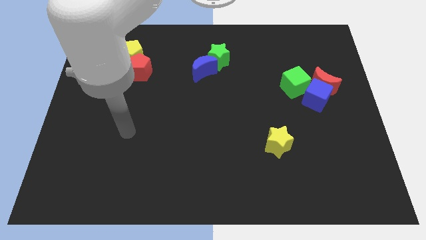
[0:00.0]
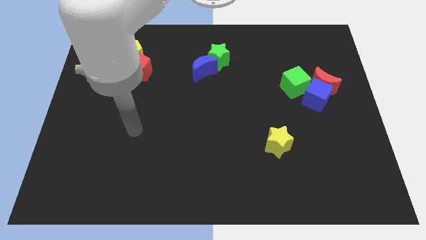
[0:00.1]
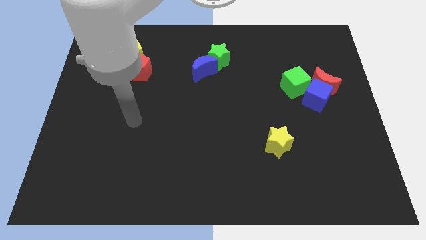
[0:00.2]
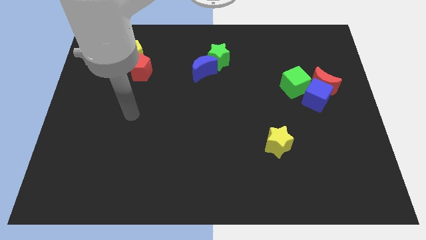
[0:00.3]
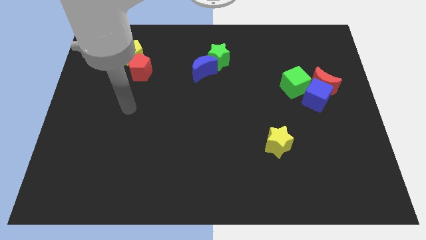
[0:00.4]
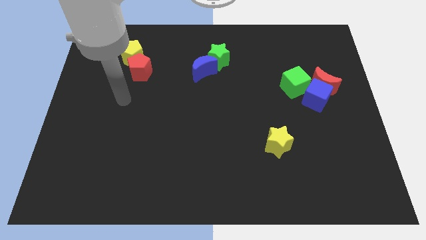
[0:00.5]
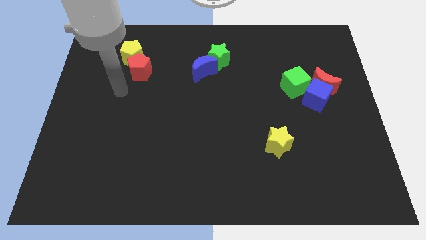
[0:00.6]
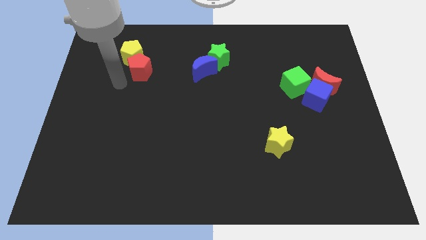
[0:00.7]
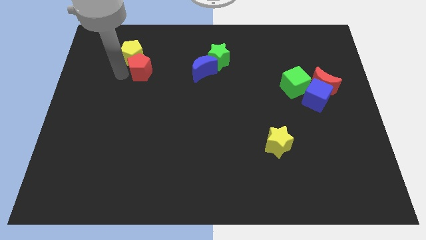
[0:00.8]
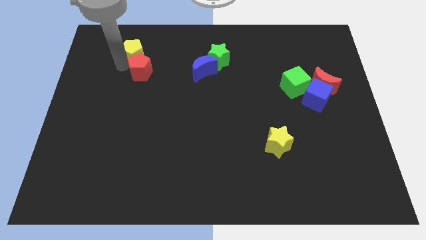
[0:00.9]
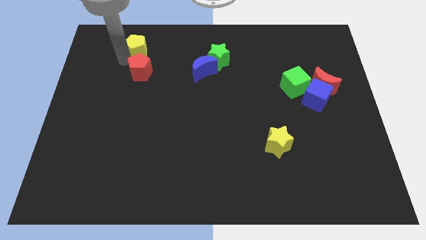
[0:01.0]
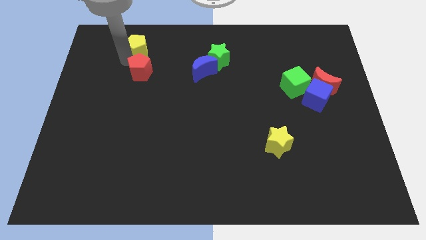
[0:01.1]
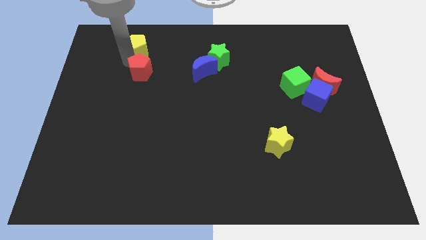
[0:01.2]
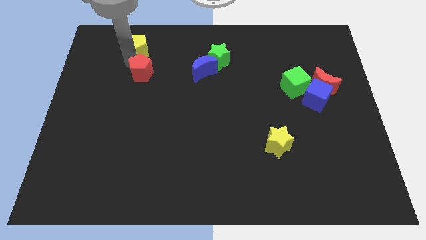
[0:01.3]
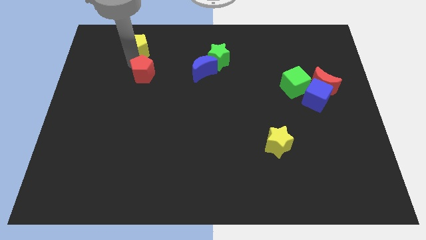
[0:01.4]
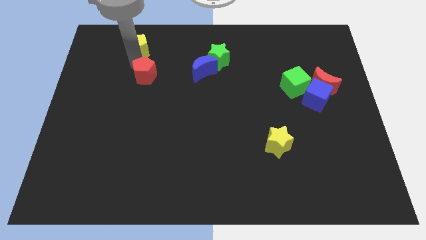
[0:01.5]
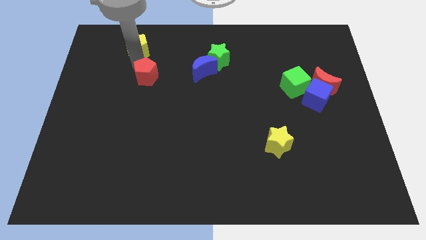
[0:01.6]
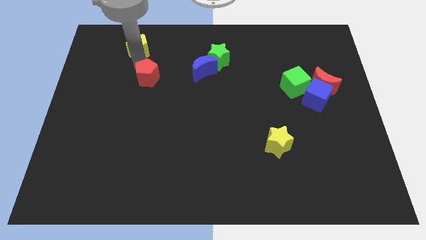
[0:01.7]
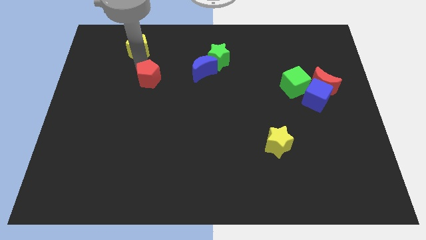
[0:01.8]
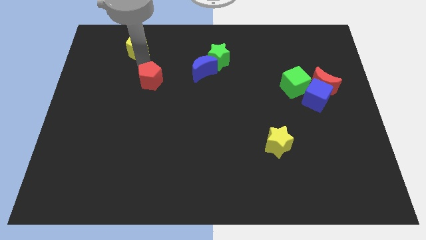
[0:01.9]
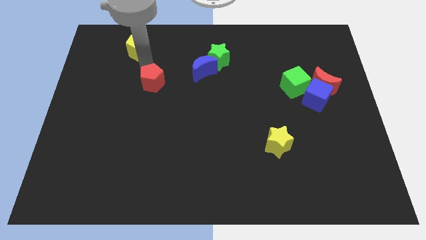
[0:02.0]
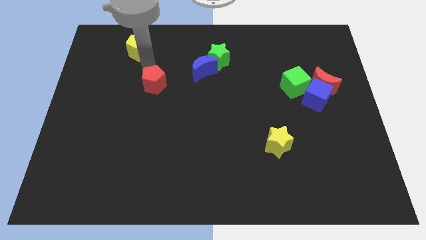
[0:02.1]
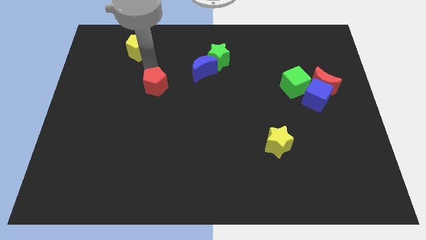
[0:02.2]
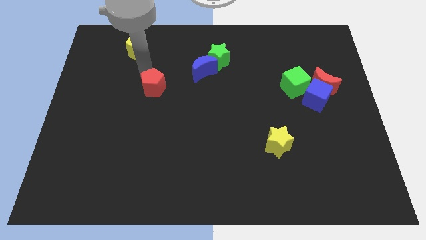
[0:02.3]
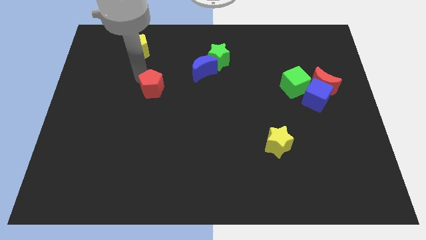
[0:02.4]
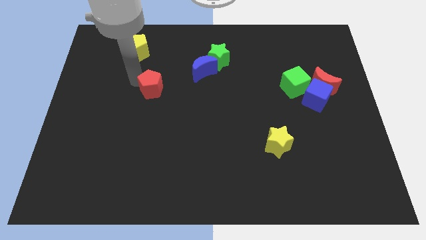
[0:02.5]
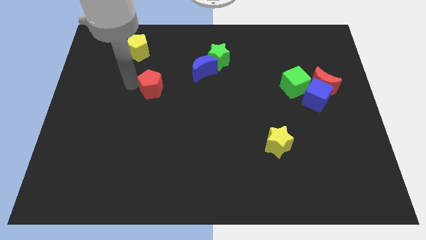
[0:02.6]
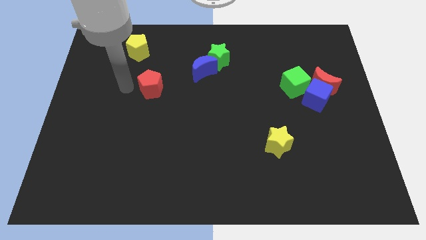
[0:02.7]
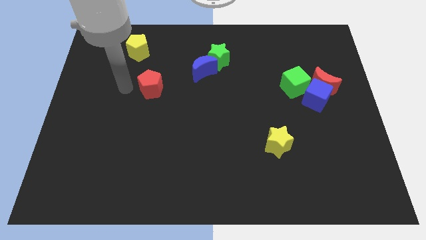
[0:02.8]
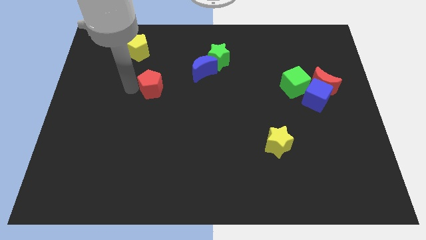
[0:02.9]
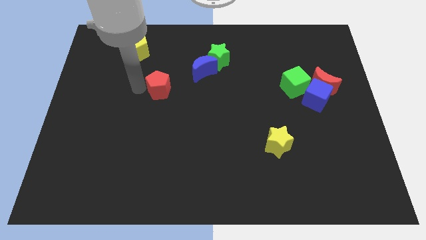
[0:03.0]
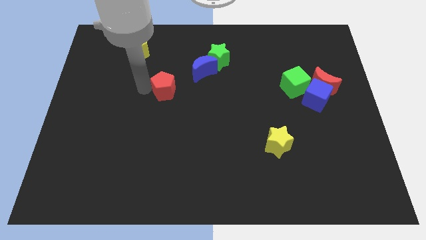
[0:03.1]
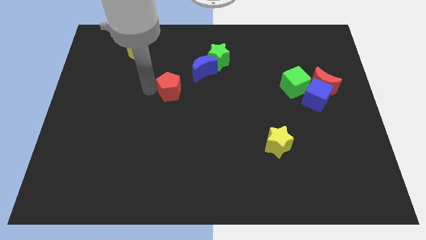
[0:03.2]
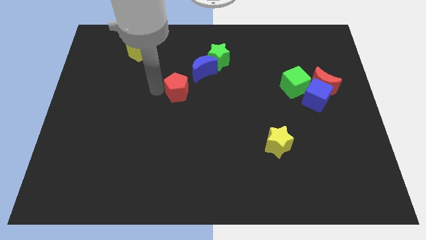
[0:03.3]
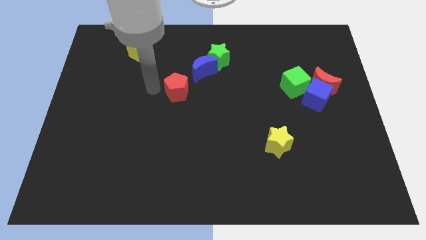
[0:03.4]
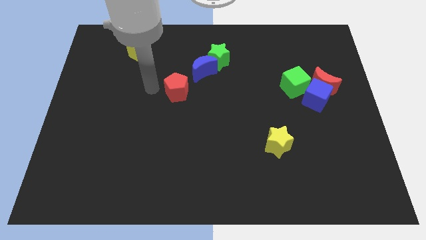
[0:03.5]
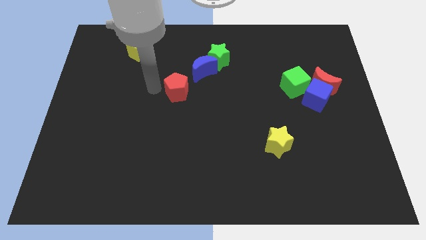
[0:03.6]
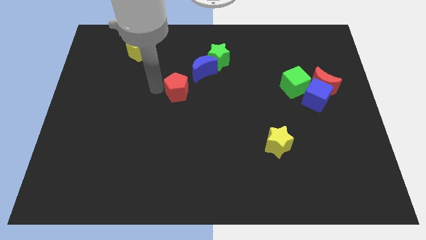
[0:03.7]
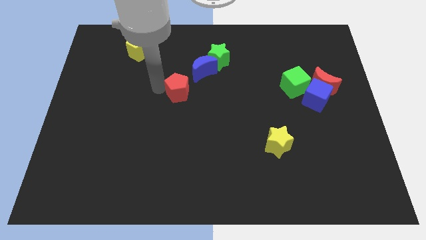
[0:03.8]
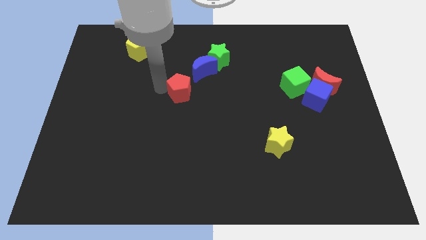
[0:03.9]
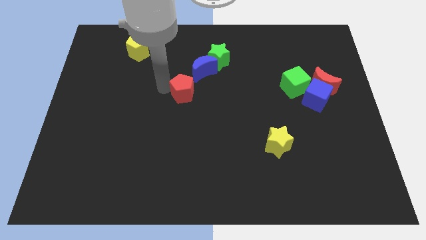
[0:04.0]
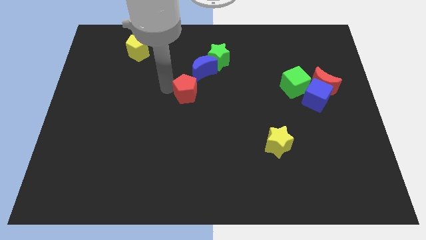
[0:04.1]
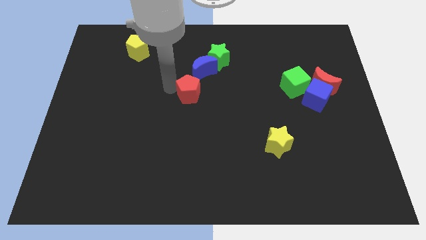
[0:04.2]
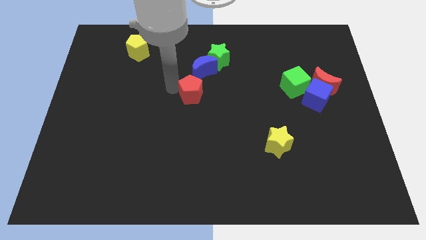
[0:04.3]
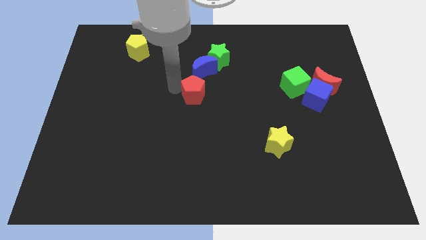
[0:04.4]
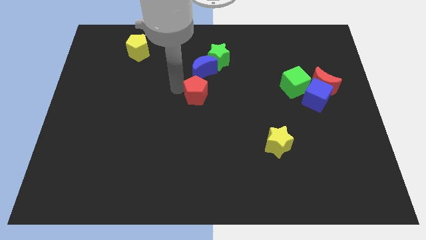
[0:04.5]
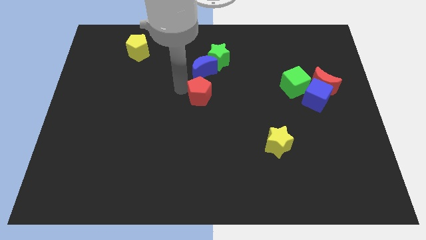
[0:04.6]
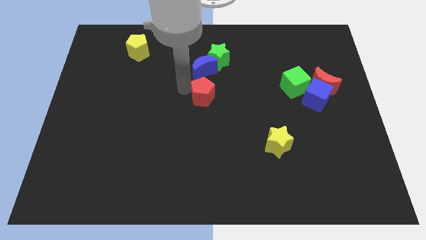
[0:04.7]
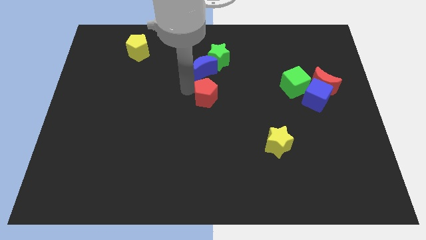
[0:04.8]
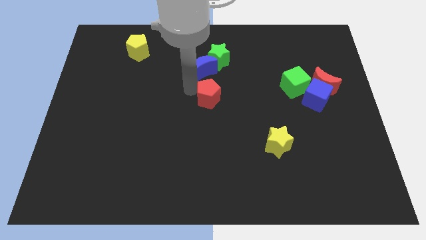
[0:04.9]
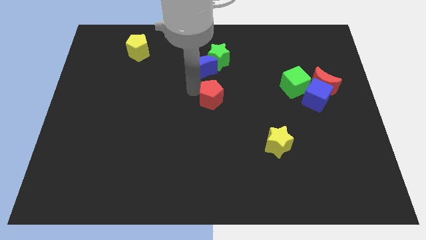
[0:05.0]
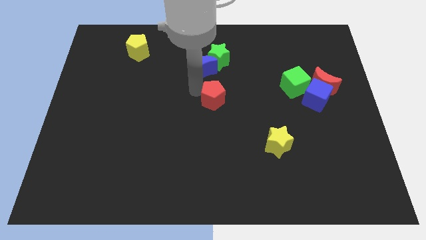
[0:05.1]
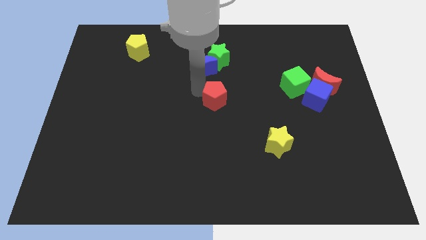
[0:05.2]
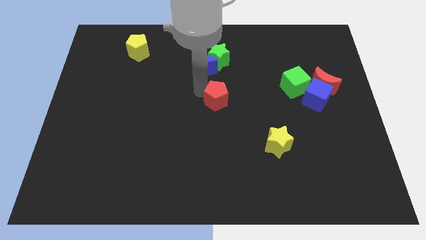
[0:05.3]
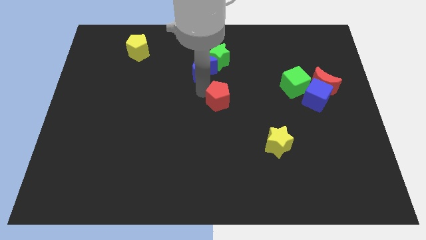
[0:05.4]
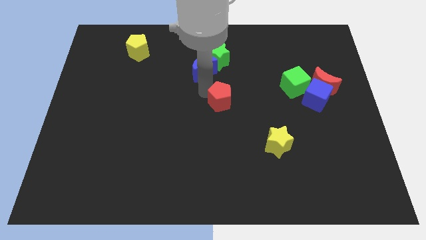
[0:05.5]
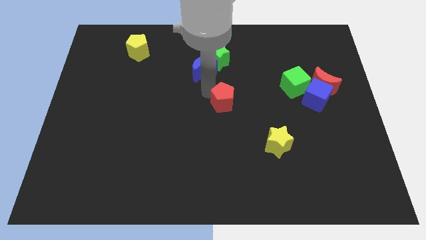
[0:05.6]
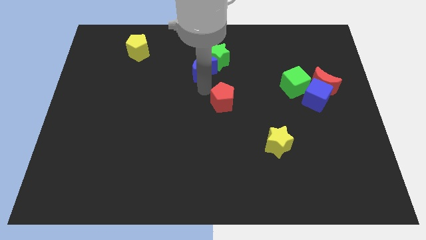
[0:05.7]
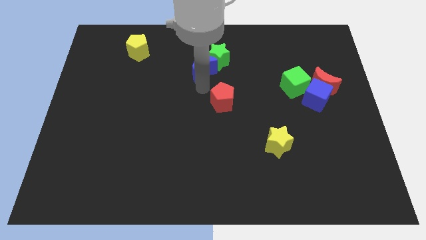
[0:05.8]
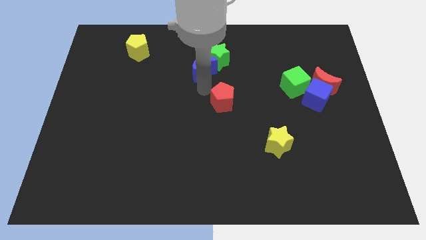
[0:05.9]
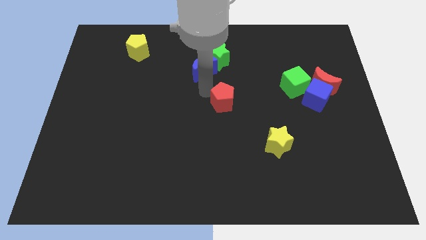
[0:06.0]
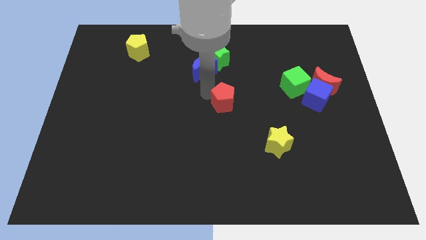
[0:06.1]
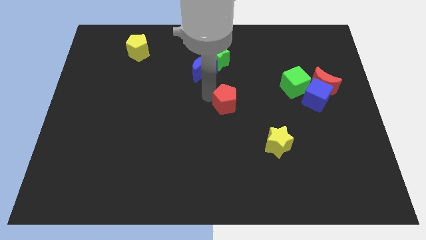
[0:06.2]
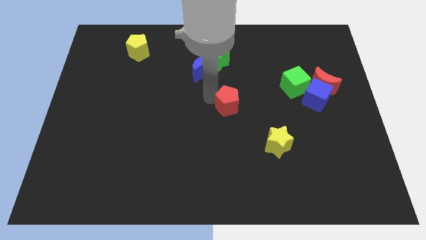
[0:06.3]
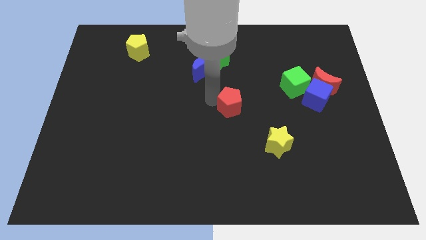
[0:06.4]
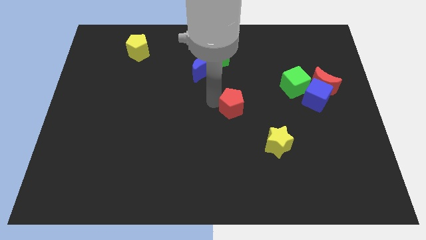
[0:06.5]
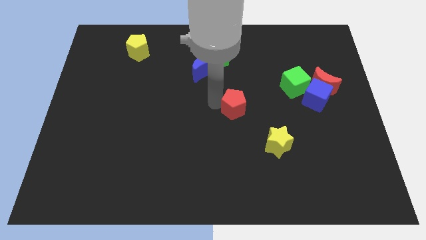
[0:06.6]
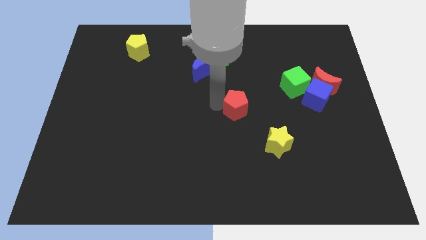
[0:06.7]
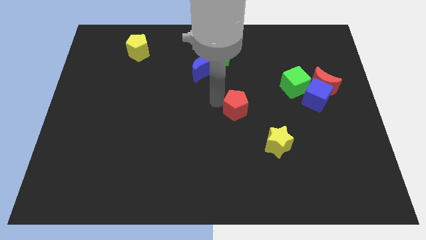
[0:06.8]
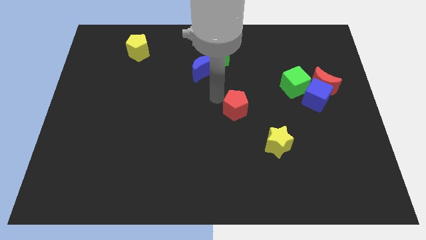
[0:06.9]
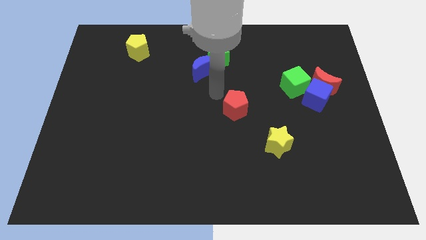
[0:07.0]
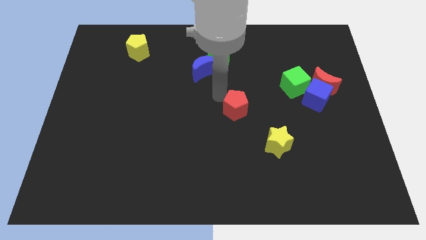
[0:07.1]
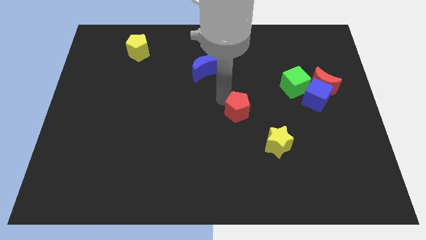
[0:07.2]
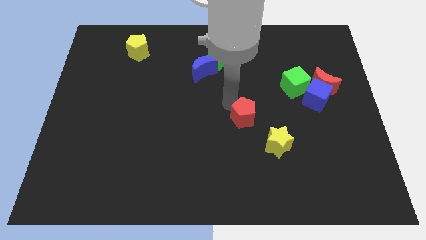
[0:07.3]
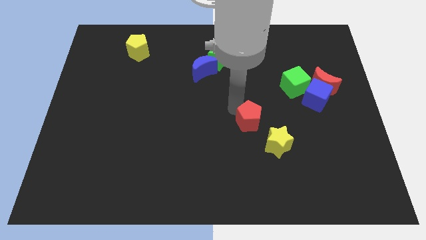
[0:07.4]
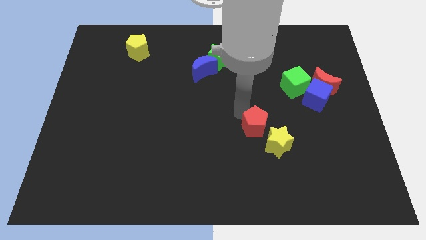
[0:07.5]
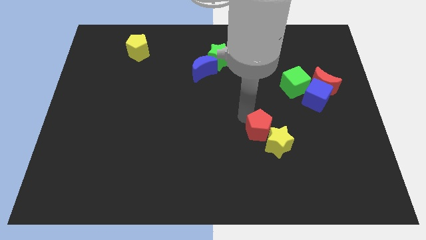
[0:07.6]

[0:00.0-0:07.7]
put the red pentagon to the yellow star
